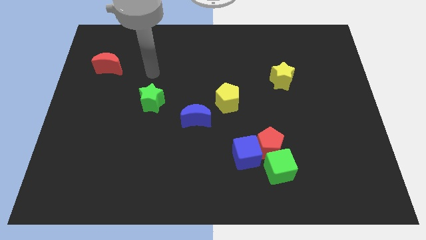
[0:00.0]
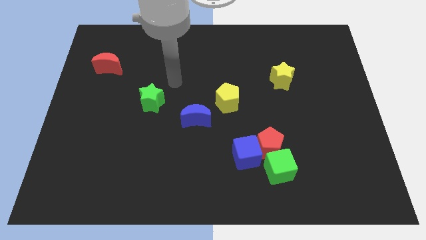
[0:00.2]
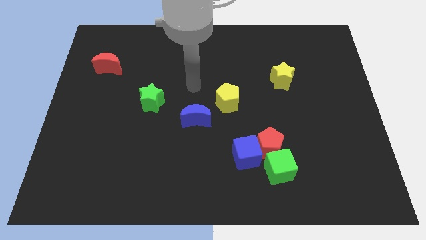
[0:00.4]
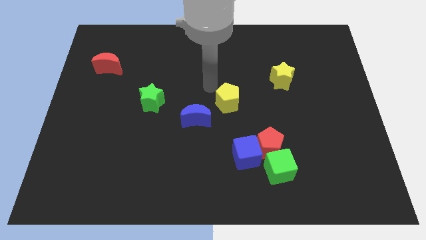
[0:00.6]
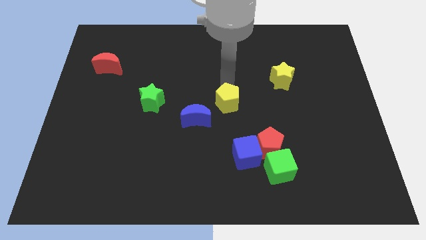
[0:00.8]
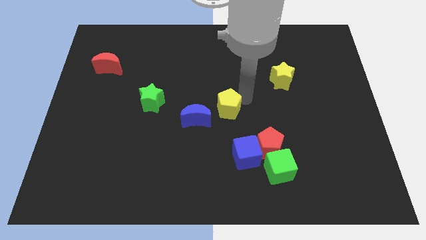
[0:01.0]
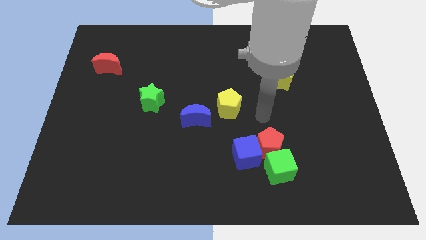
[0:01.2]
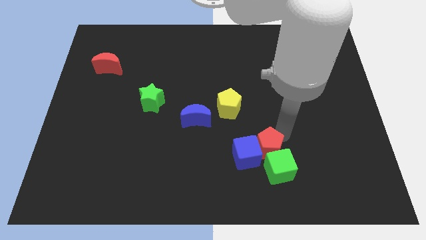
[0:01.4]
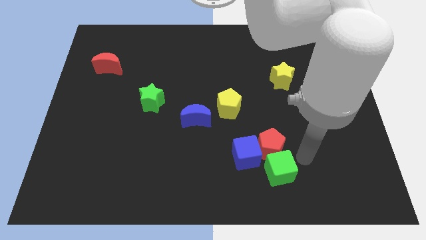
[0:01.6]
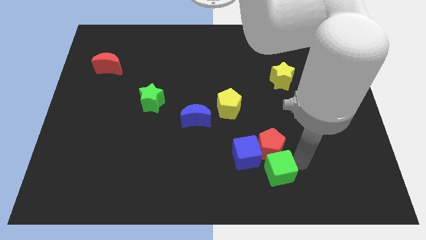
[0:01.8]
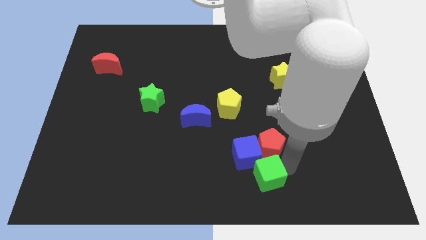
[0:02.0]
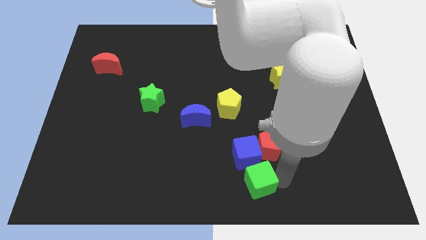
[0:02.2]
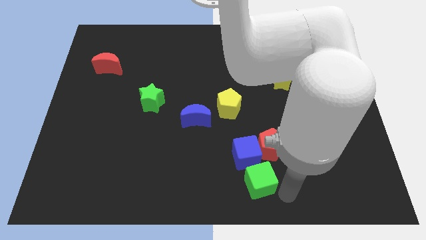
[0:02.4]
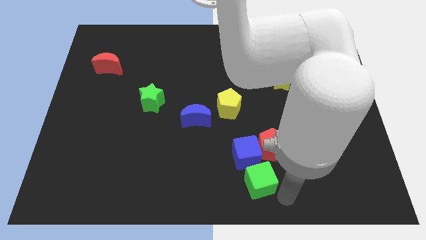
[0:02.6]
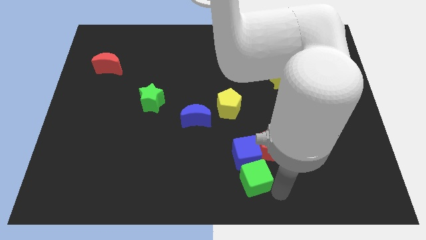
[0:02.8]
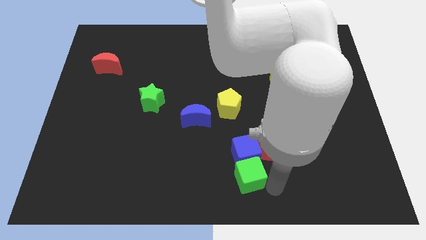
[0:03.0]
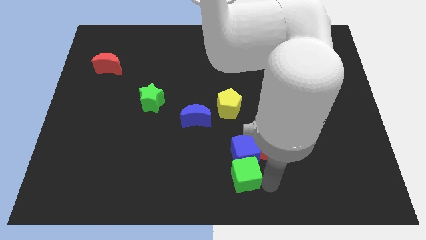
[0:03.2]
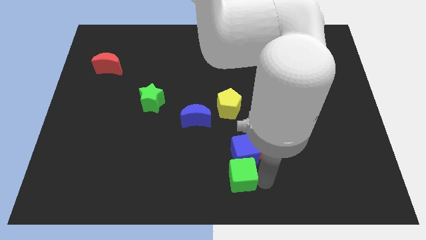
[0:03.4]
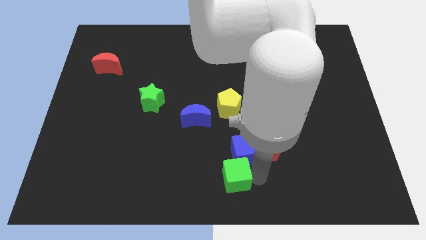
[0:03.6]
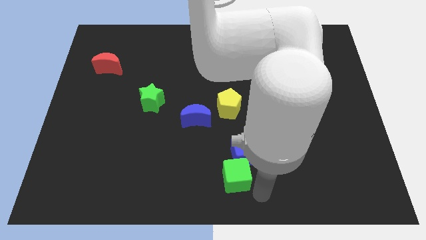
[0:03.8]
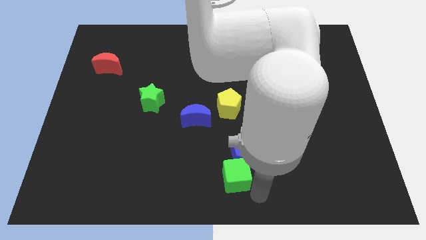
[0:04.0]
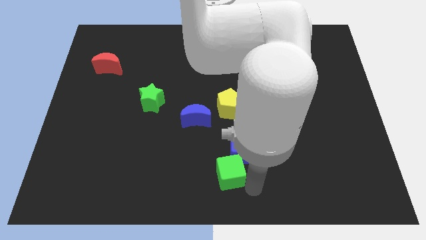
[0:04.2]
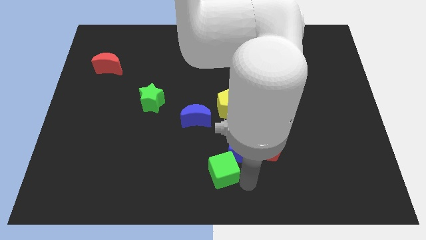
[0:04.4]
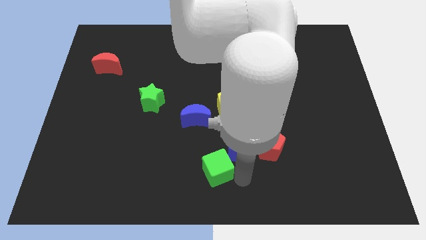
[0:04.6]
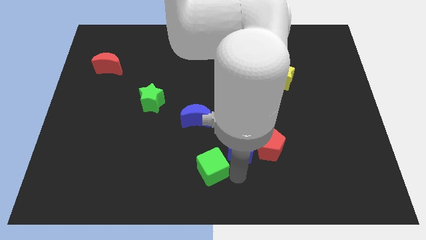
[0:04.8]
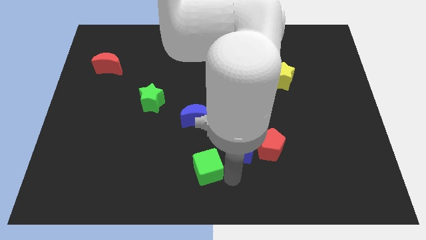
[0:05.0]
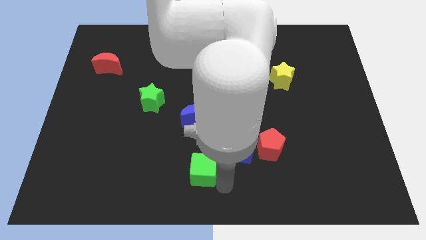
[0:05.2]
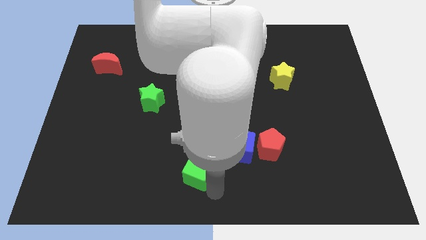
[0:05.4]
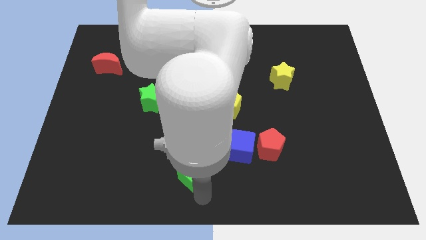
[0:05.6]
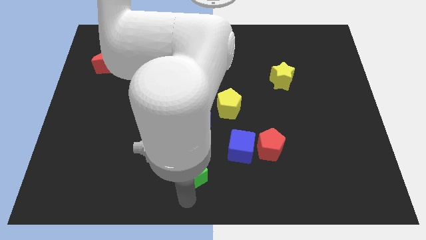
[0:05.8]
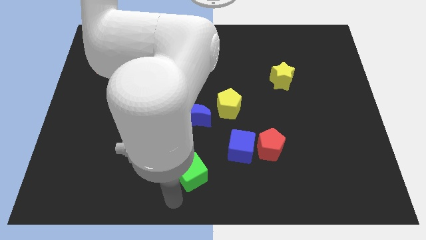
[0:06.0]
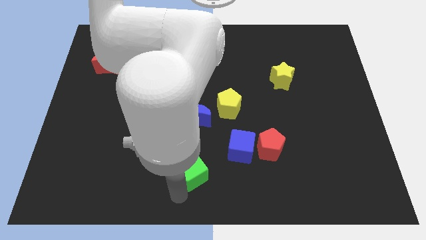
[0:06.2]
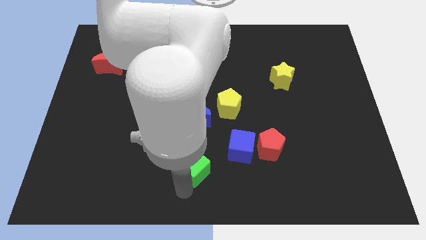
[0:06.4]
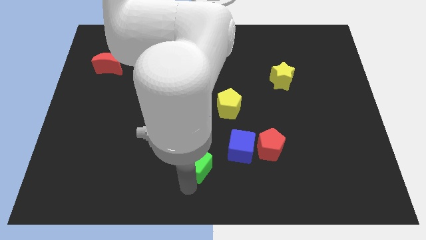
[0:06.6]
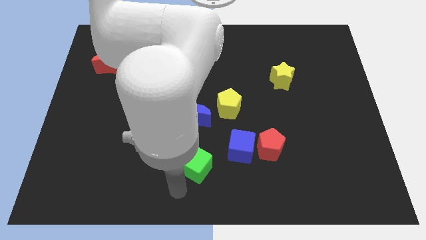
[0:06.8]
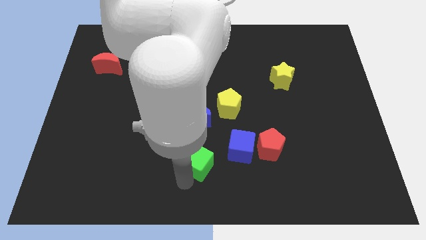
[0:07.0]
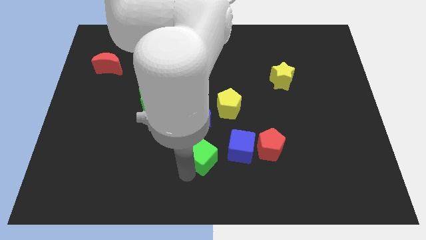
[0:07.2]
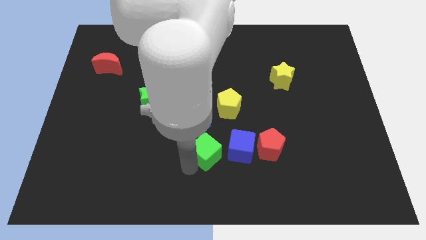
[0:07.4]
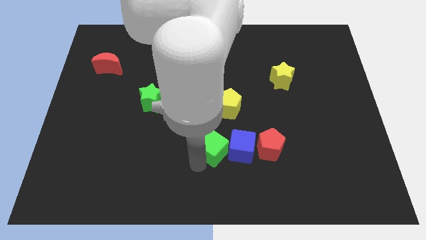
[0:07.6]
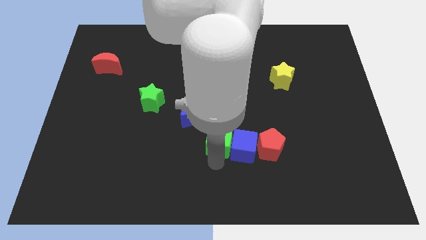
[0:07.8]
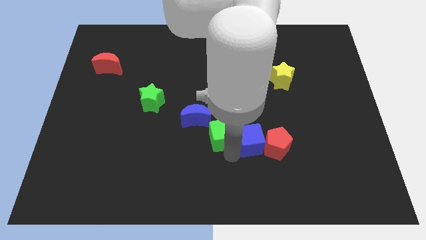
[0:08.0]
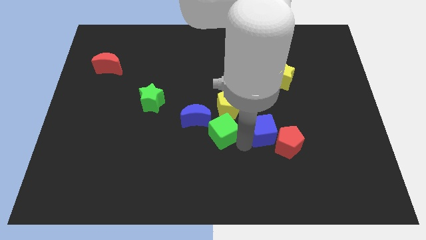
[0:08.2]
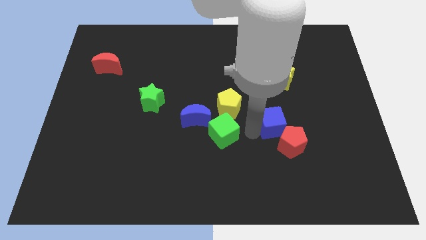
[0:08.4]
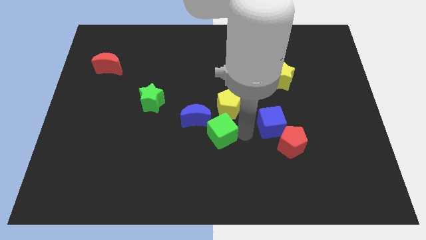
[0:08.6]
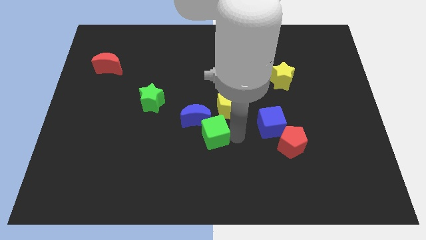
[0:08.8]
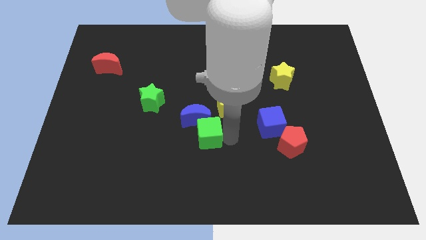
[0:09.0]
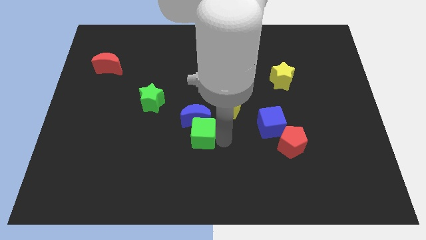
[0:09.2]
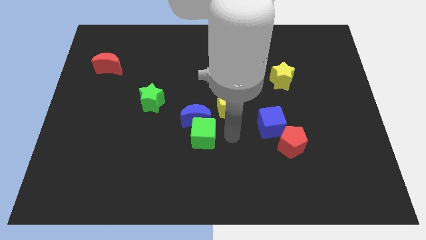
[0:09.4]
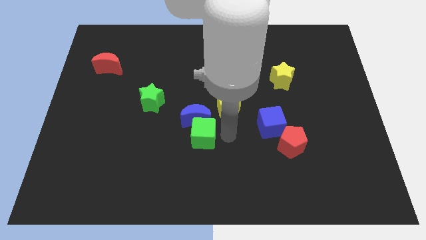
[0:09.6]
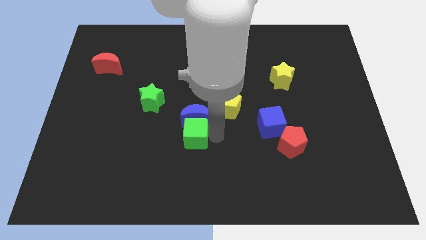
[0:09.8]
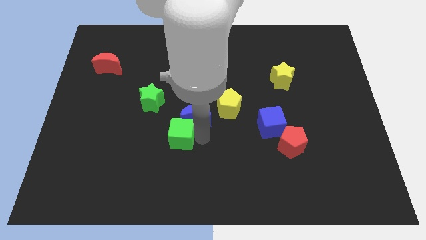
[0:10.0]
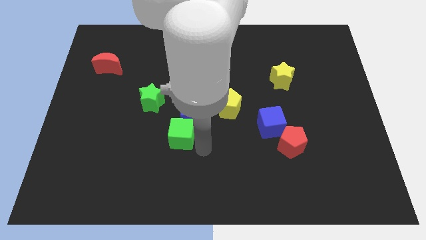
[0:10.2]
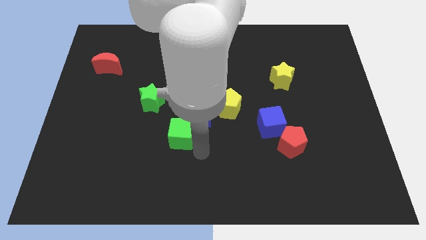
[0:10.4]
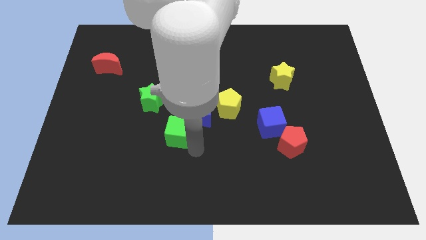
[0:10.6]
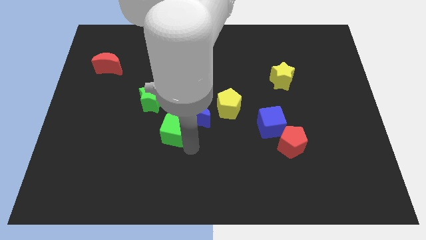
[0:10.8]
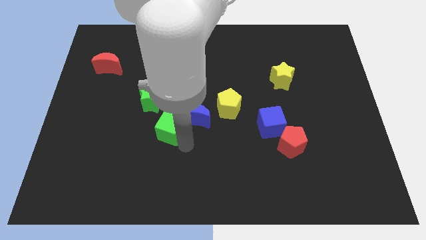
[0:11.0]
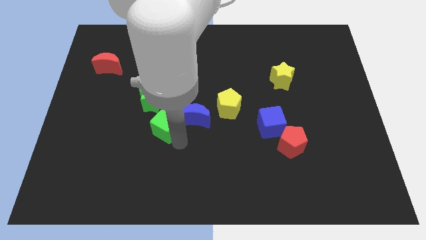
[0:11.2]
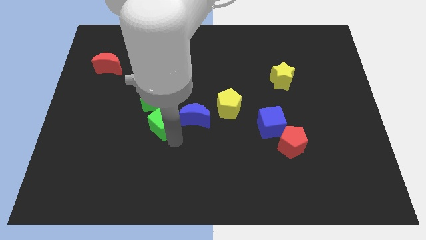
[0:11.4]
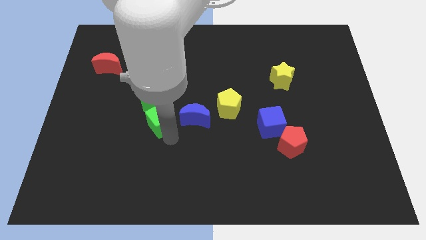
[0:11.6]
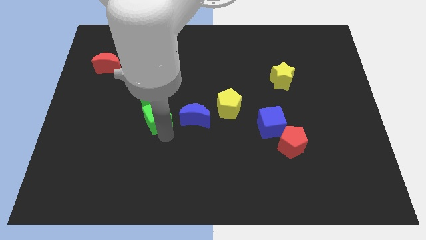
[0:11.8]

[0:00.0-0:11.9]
put the green cube close to the green star

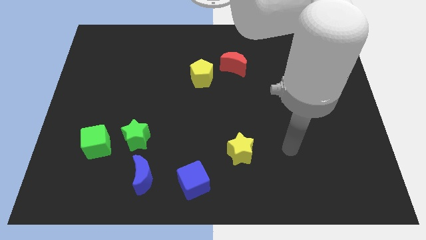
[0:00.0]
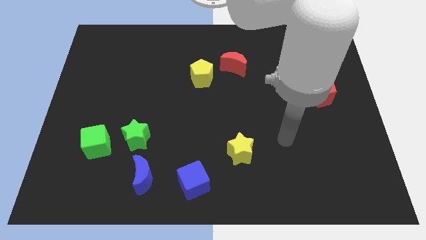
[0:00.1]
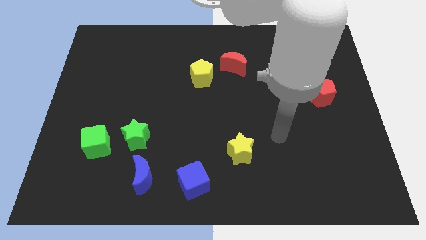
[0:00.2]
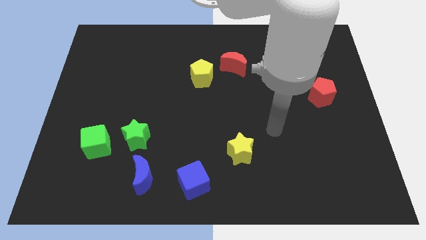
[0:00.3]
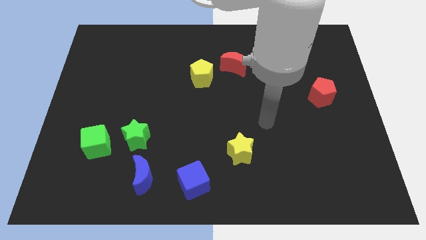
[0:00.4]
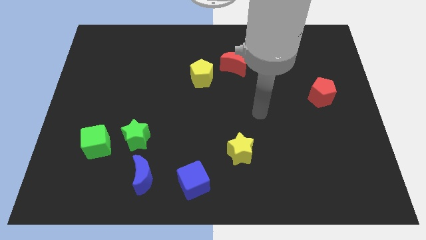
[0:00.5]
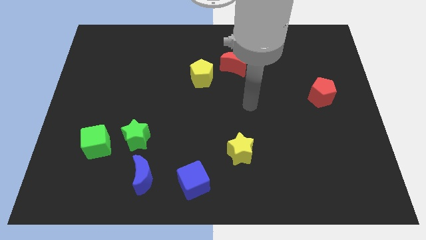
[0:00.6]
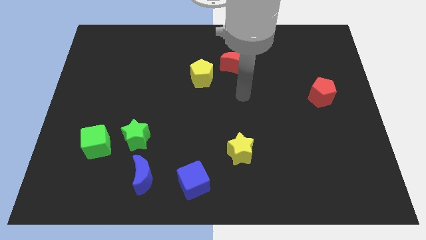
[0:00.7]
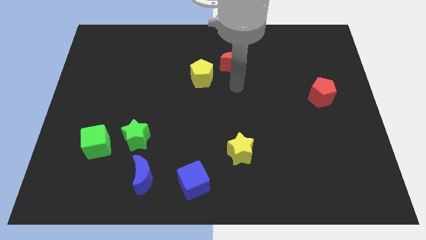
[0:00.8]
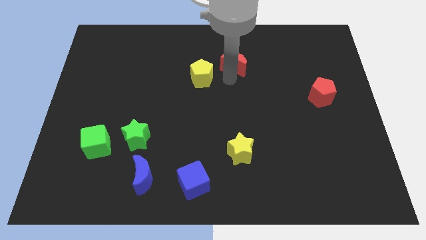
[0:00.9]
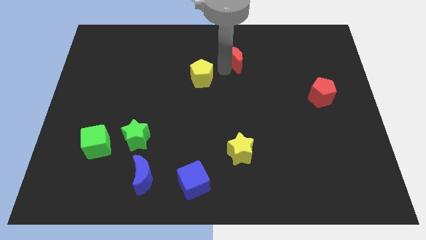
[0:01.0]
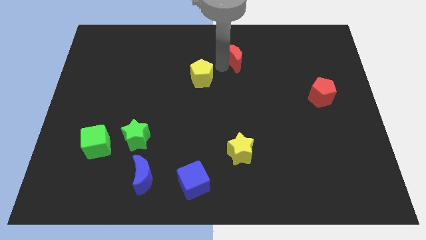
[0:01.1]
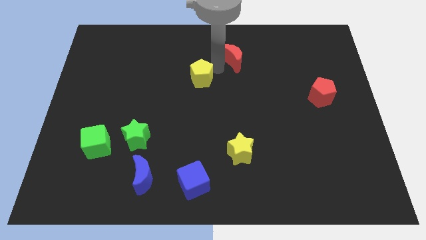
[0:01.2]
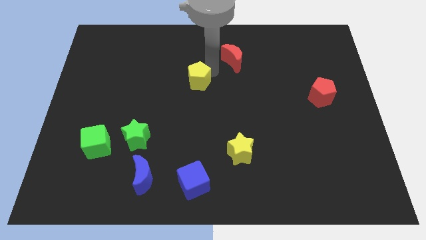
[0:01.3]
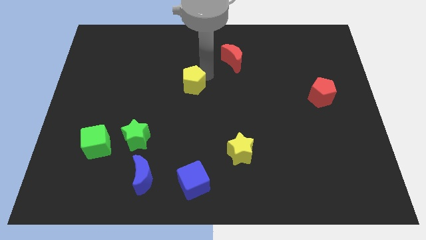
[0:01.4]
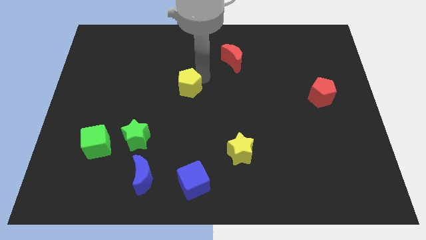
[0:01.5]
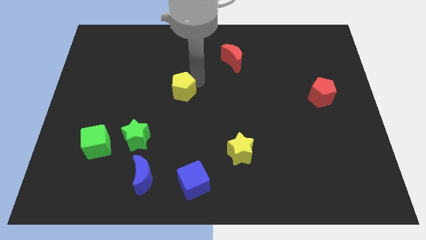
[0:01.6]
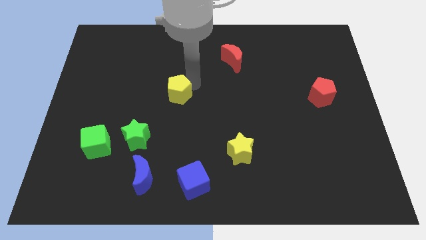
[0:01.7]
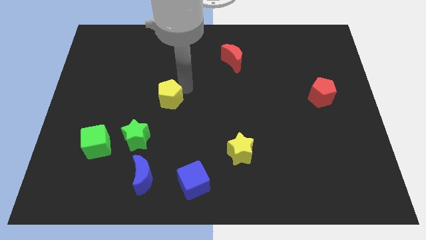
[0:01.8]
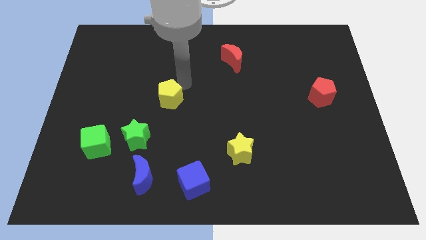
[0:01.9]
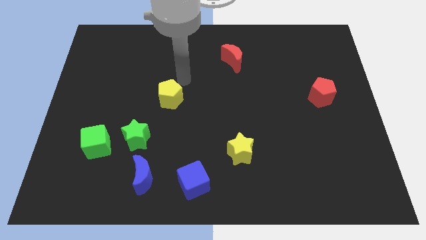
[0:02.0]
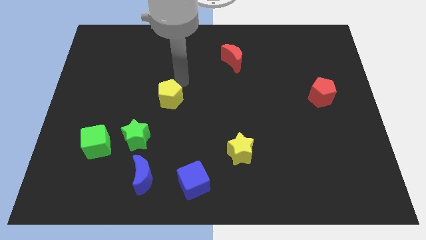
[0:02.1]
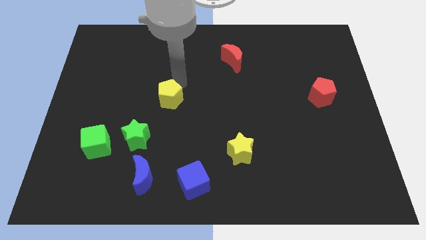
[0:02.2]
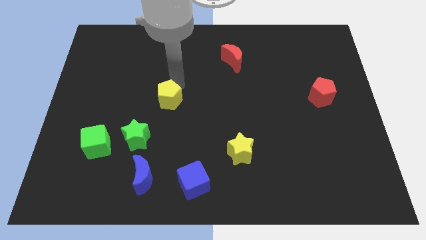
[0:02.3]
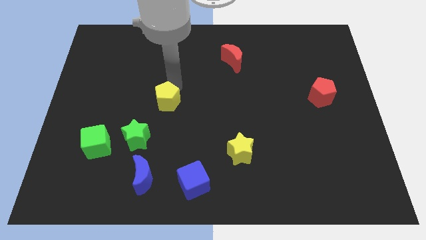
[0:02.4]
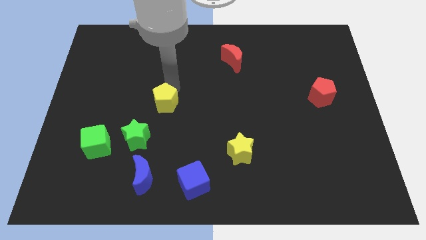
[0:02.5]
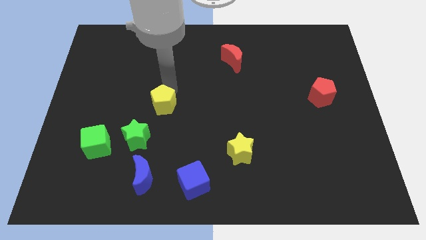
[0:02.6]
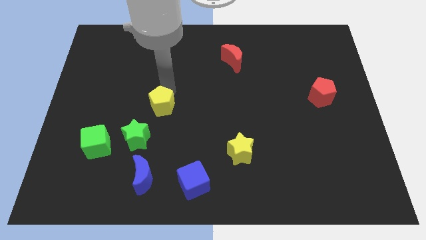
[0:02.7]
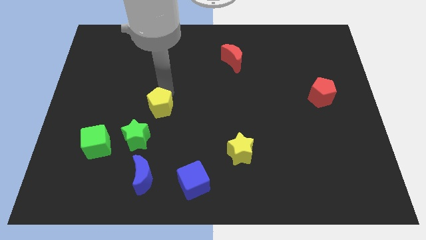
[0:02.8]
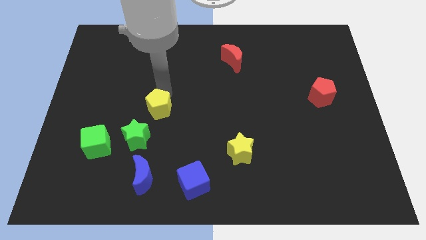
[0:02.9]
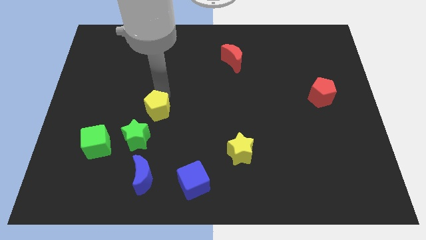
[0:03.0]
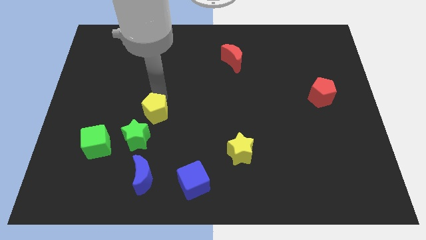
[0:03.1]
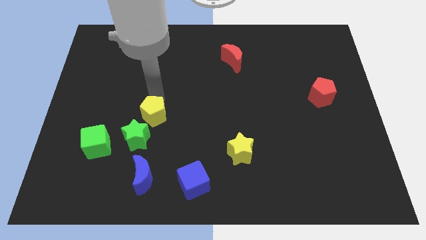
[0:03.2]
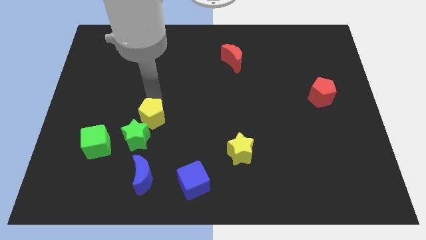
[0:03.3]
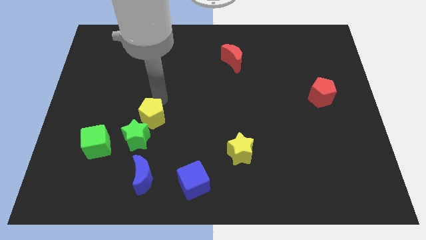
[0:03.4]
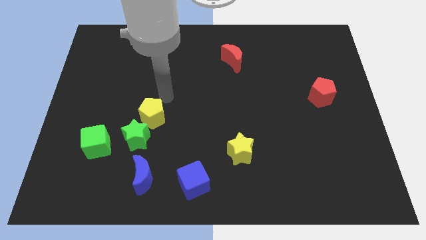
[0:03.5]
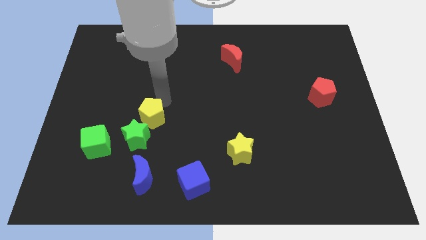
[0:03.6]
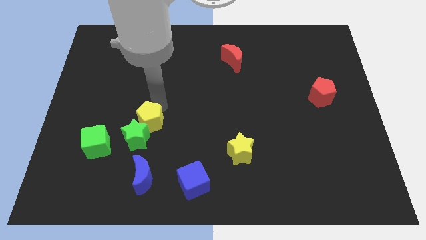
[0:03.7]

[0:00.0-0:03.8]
move the yellow pentagon towards the green star
